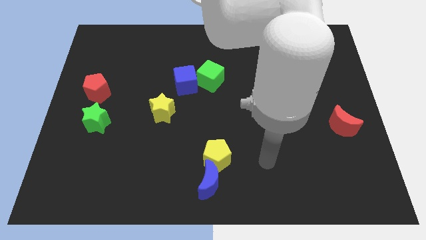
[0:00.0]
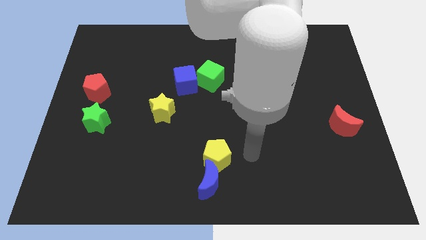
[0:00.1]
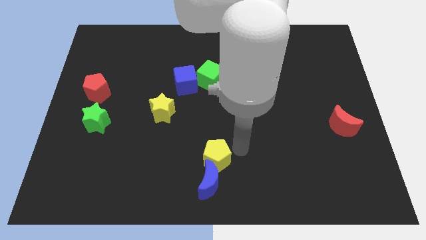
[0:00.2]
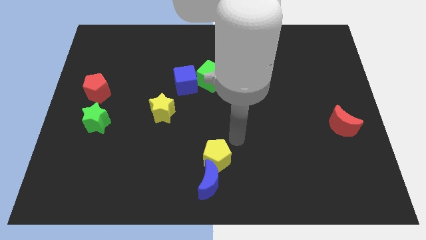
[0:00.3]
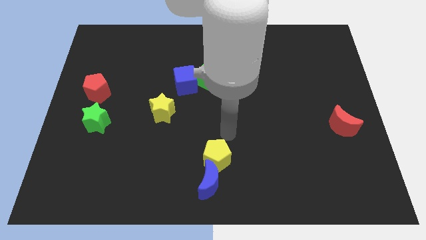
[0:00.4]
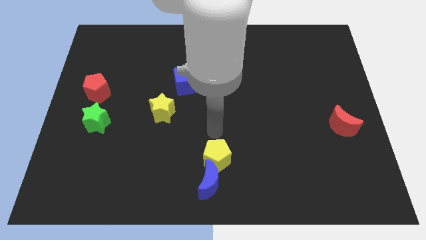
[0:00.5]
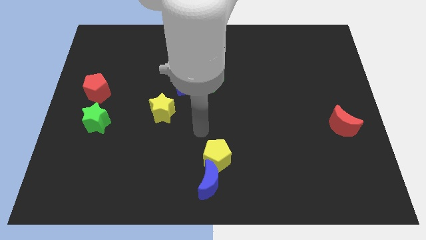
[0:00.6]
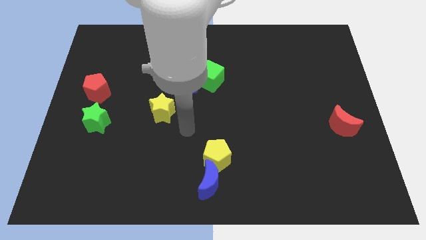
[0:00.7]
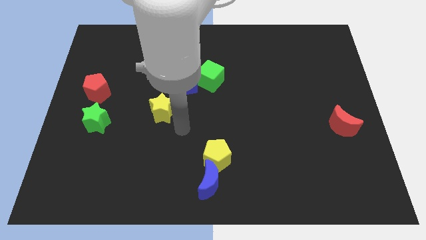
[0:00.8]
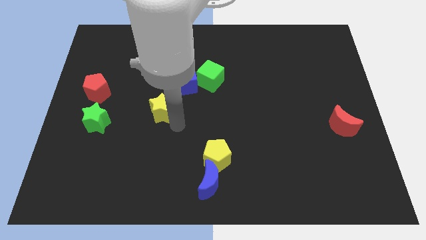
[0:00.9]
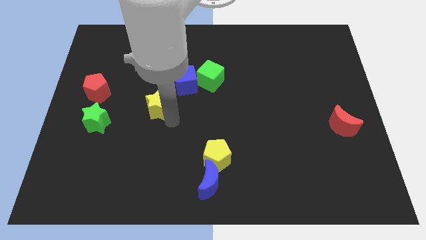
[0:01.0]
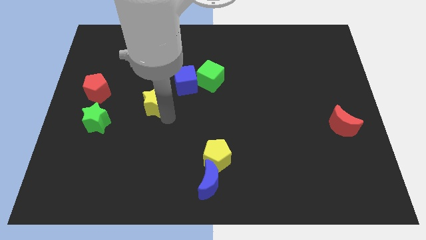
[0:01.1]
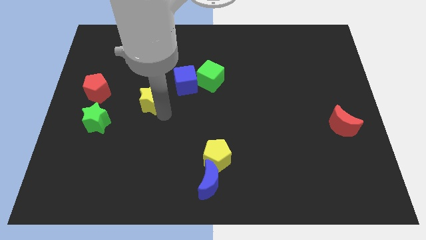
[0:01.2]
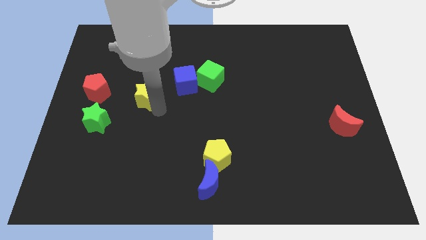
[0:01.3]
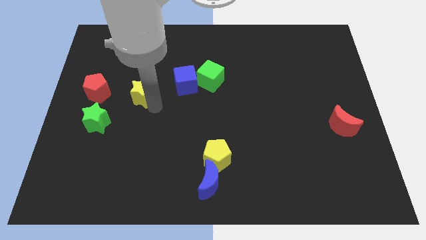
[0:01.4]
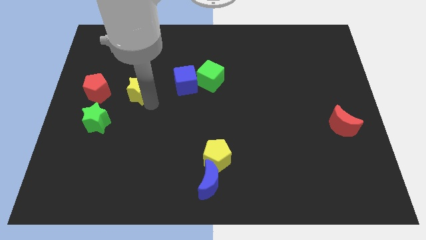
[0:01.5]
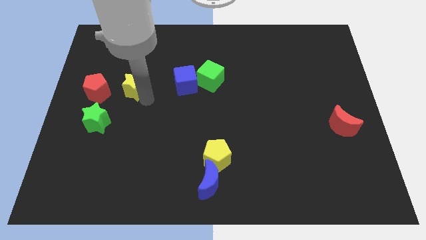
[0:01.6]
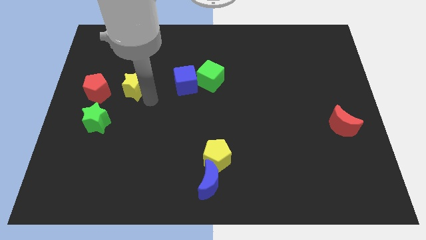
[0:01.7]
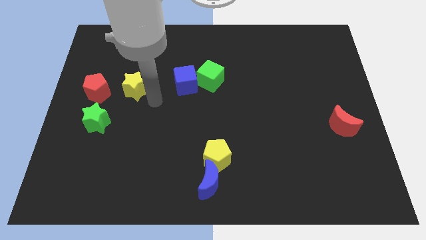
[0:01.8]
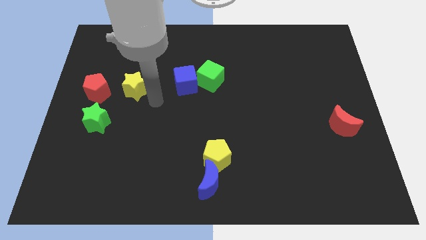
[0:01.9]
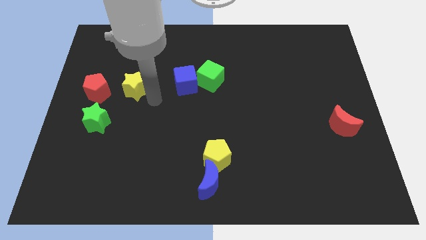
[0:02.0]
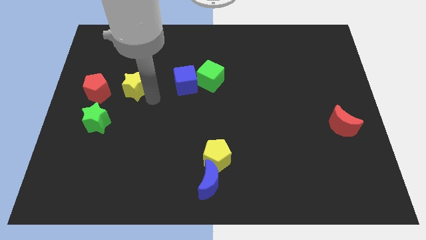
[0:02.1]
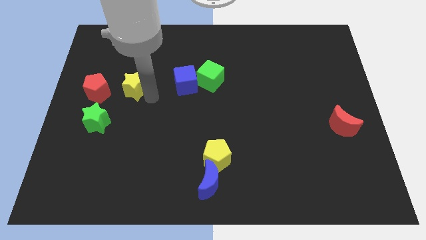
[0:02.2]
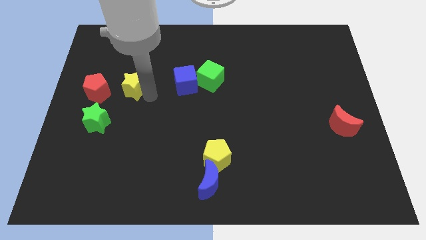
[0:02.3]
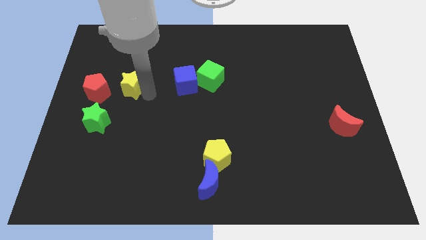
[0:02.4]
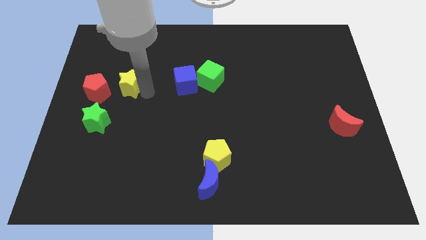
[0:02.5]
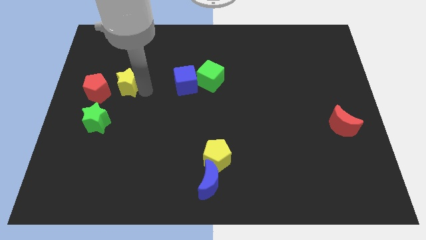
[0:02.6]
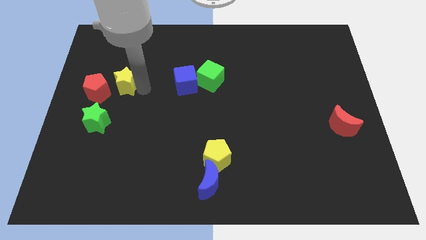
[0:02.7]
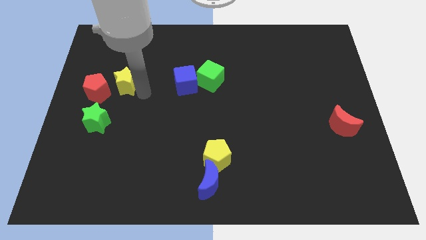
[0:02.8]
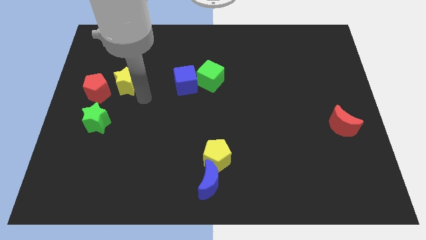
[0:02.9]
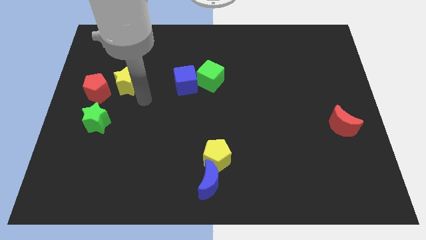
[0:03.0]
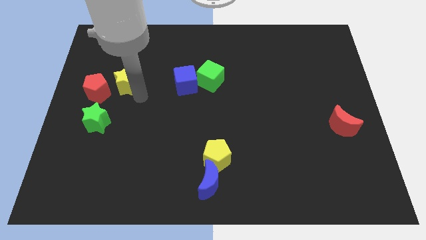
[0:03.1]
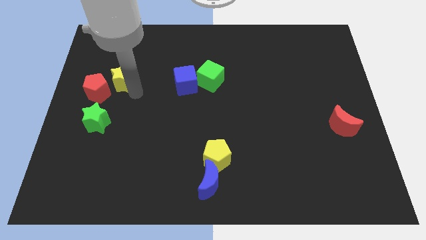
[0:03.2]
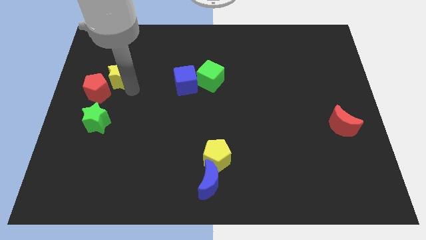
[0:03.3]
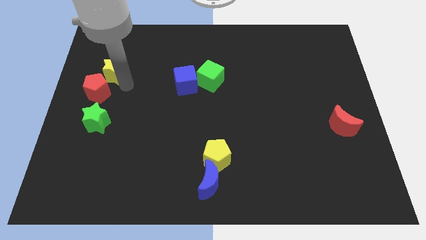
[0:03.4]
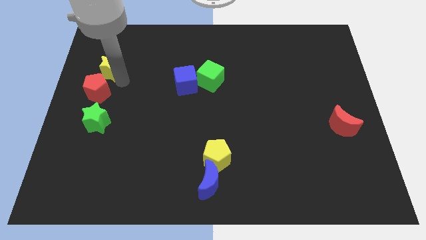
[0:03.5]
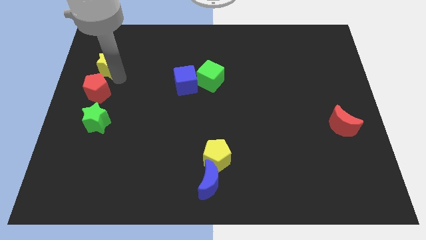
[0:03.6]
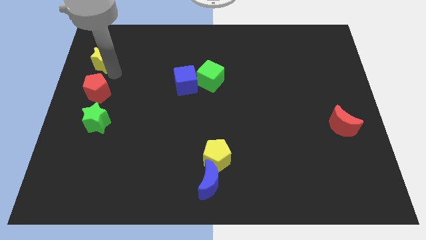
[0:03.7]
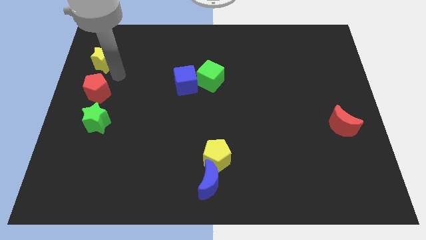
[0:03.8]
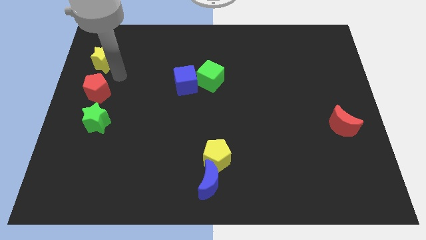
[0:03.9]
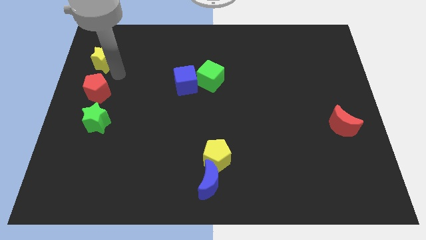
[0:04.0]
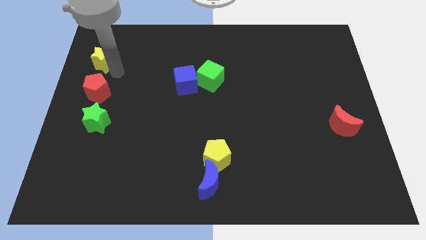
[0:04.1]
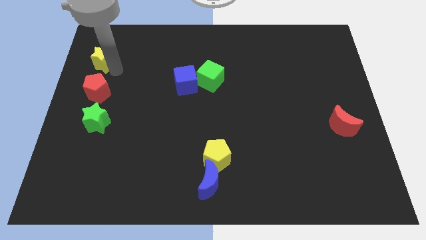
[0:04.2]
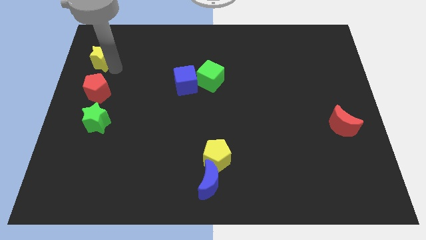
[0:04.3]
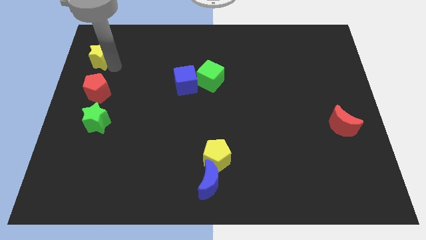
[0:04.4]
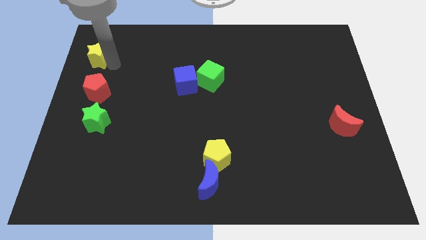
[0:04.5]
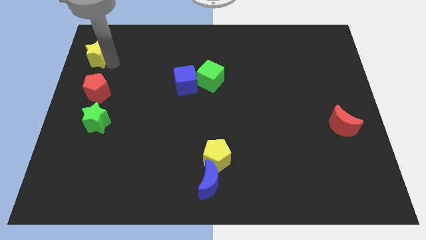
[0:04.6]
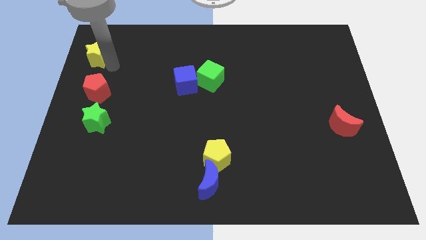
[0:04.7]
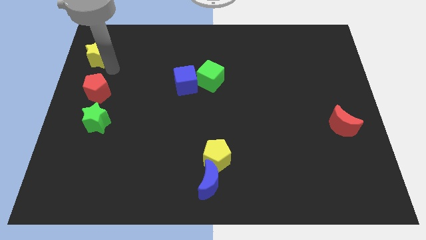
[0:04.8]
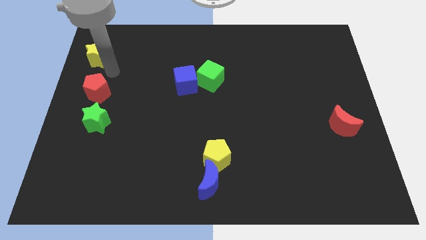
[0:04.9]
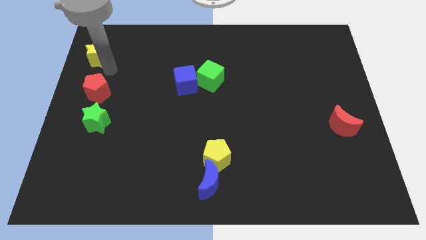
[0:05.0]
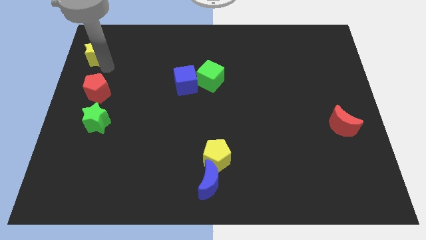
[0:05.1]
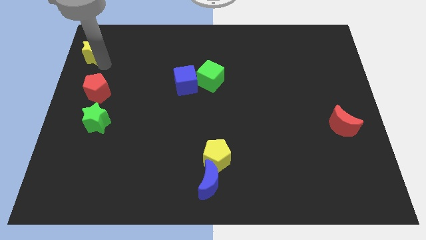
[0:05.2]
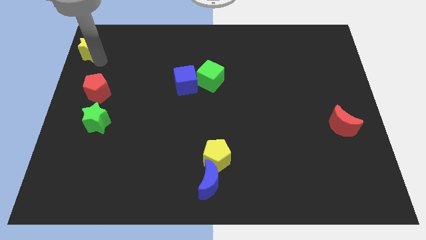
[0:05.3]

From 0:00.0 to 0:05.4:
move the yellow star to the upper left corner

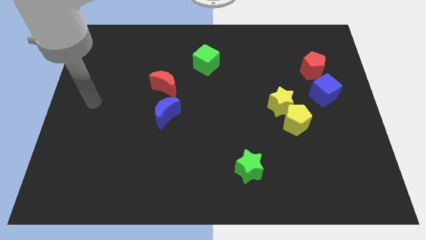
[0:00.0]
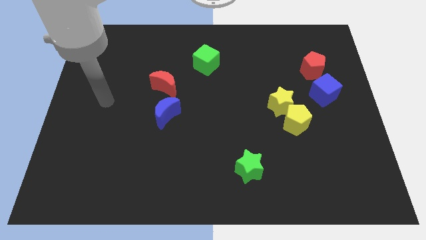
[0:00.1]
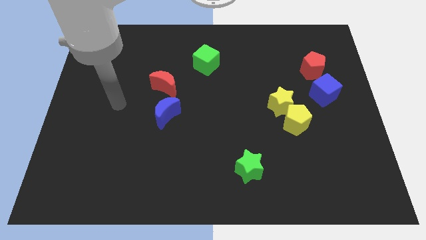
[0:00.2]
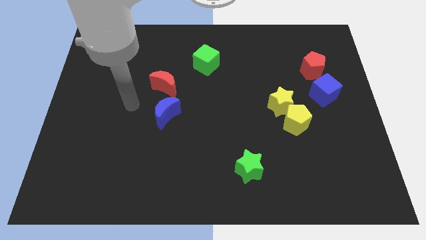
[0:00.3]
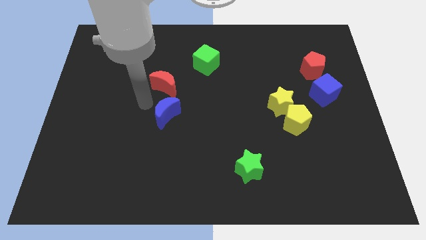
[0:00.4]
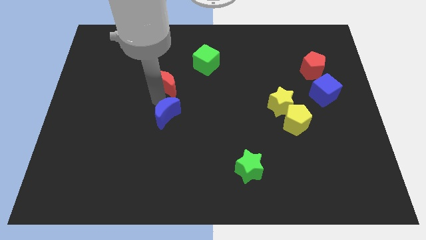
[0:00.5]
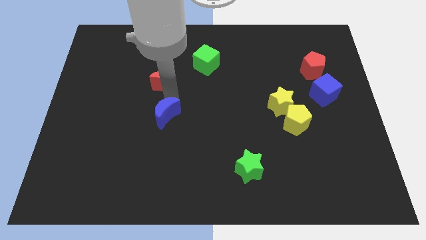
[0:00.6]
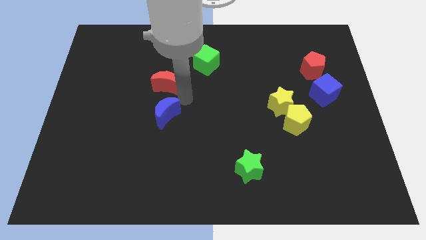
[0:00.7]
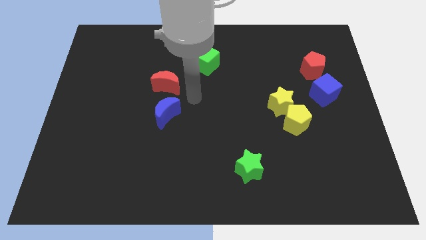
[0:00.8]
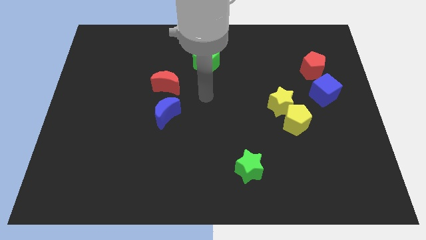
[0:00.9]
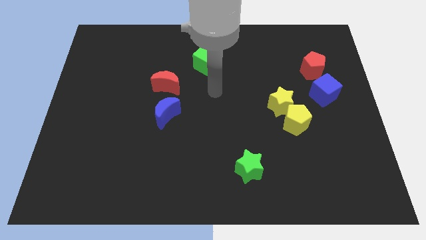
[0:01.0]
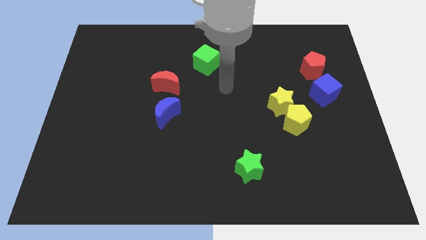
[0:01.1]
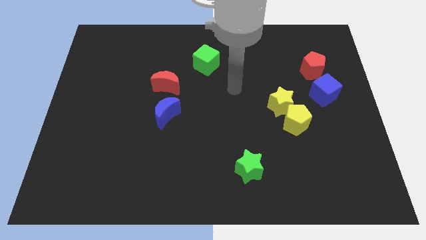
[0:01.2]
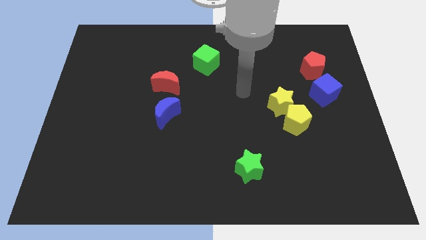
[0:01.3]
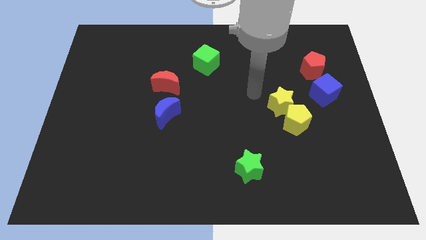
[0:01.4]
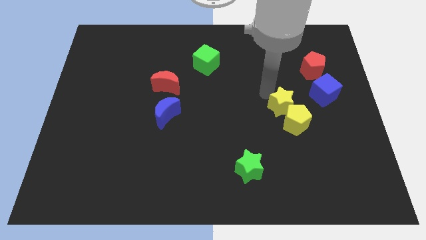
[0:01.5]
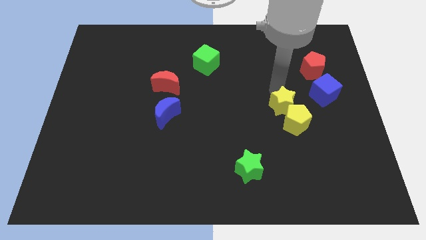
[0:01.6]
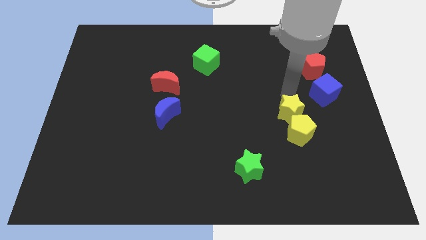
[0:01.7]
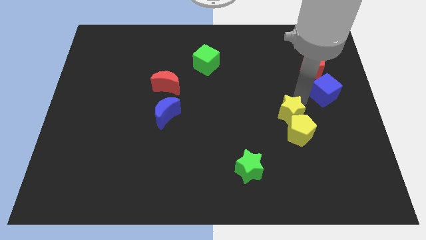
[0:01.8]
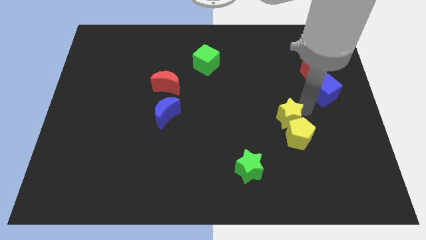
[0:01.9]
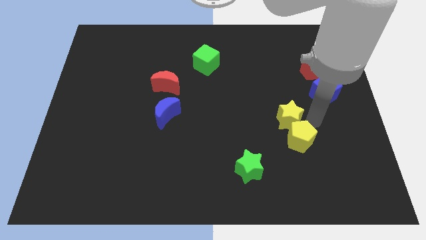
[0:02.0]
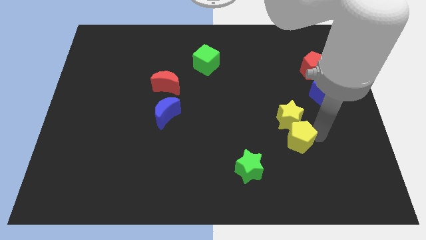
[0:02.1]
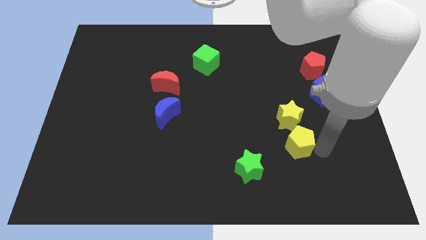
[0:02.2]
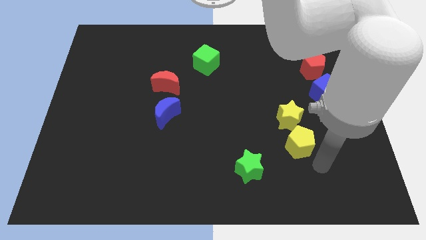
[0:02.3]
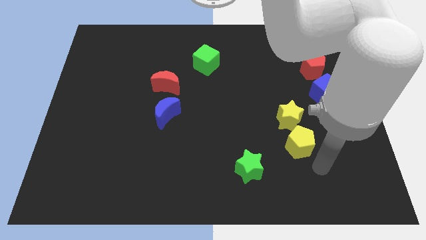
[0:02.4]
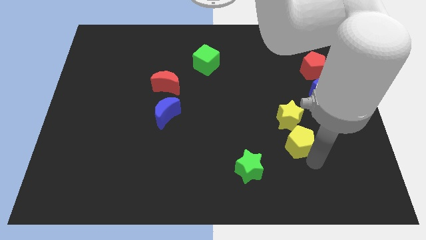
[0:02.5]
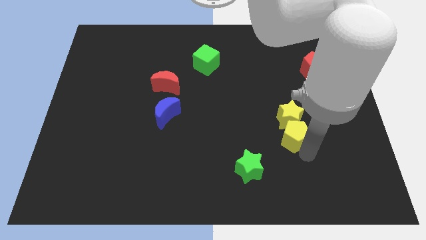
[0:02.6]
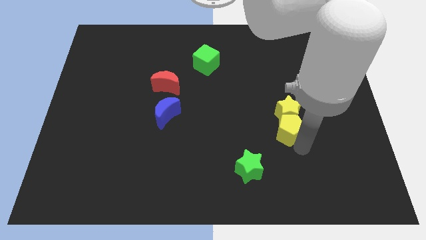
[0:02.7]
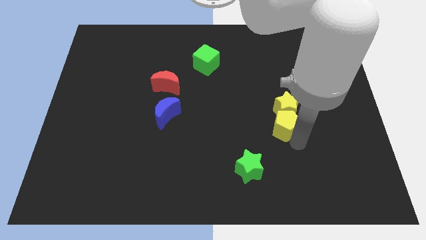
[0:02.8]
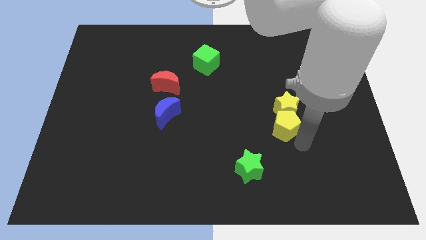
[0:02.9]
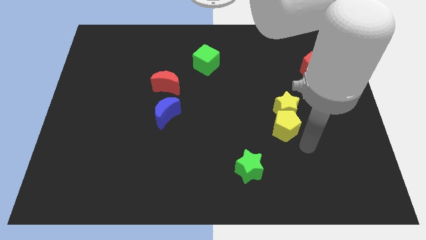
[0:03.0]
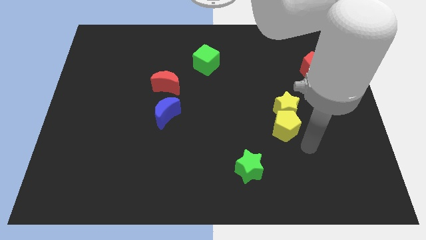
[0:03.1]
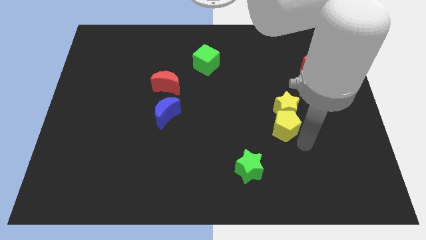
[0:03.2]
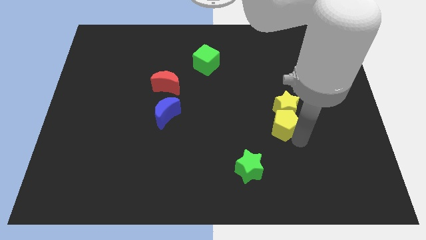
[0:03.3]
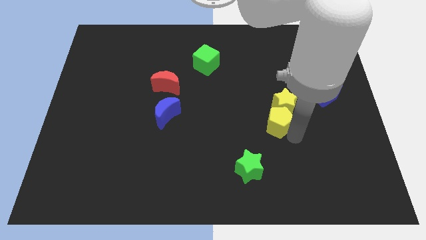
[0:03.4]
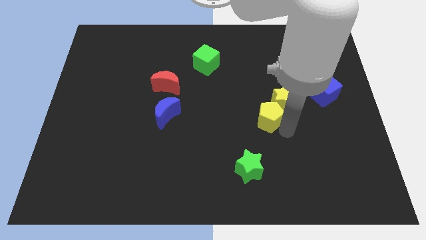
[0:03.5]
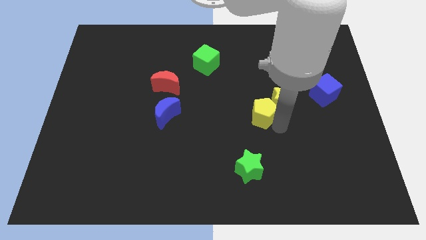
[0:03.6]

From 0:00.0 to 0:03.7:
put the yellow pentagon to the middle
